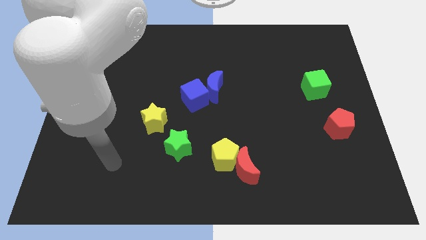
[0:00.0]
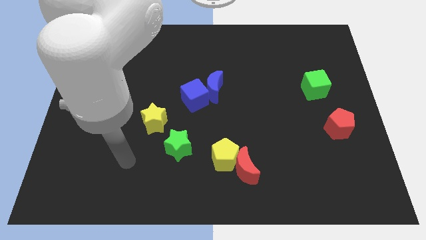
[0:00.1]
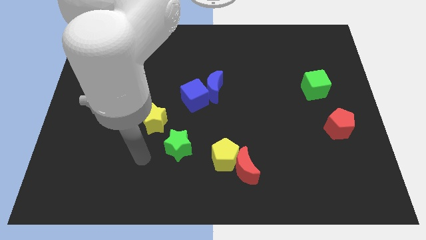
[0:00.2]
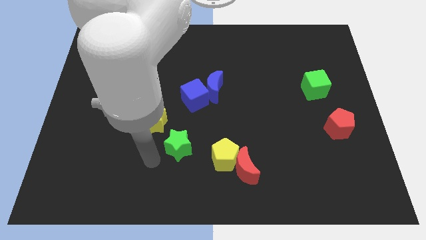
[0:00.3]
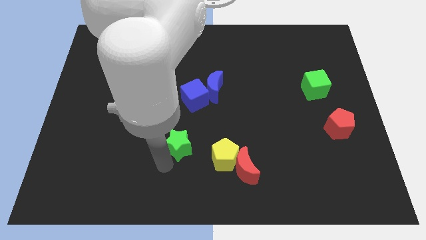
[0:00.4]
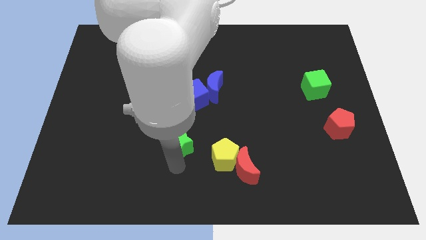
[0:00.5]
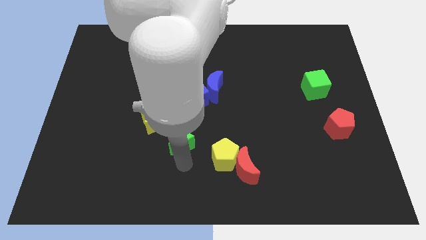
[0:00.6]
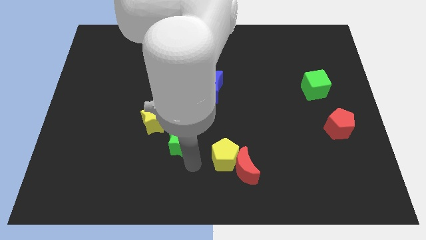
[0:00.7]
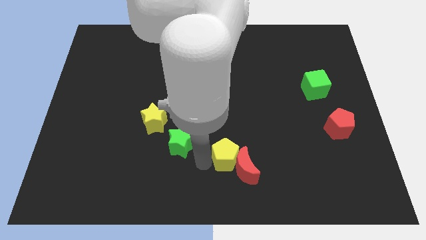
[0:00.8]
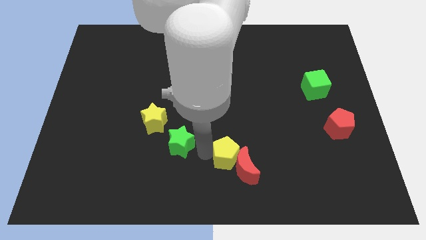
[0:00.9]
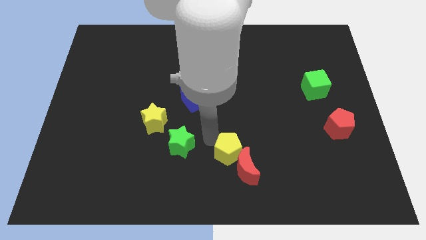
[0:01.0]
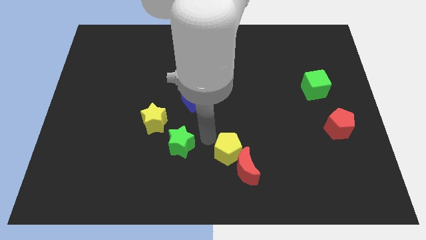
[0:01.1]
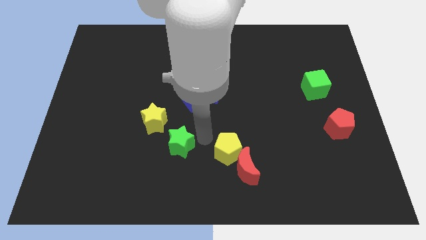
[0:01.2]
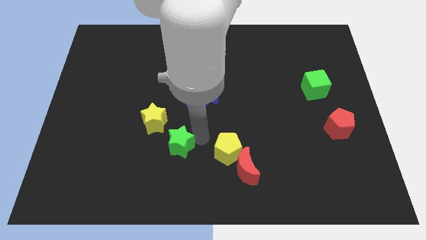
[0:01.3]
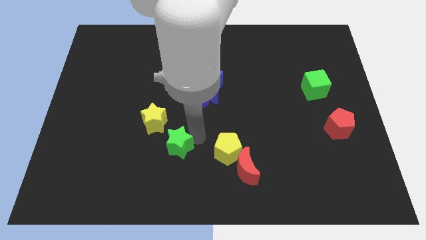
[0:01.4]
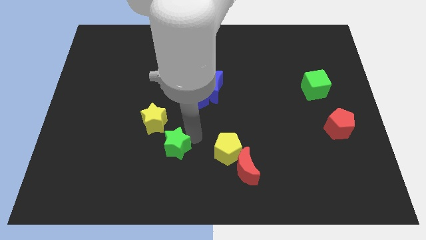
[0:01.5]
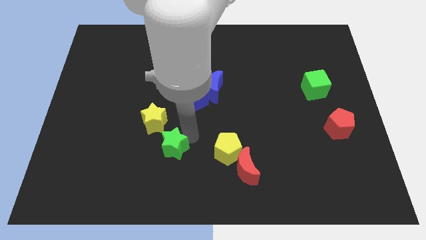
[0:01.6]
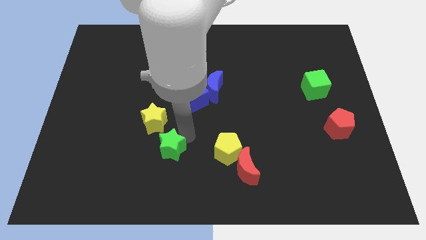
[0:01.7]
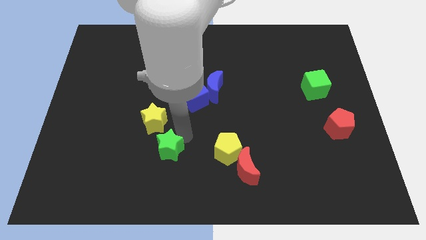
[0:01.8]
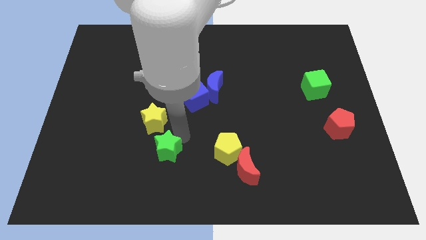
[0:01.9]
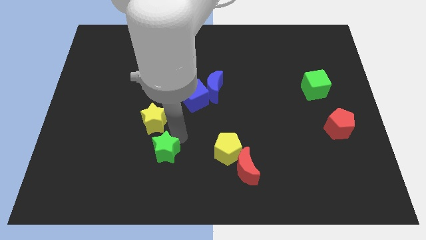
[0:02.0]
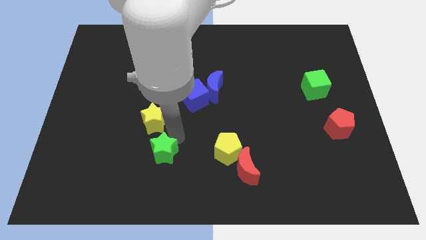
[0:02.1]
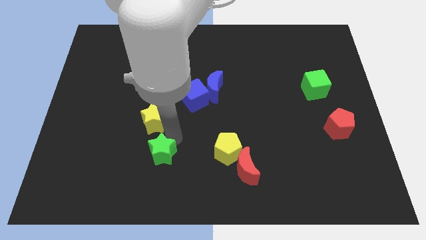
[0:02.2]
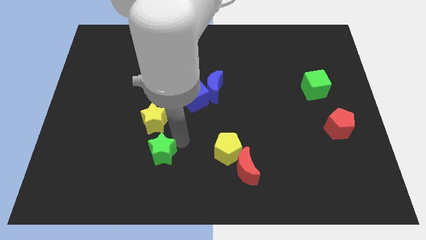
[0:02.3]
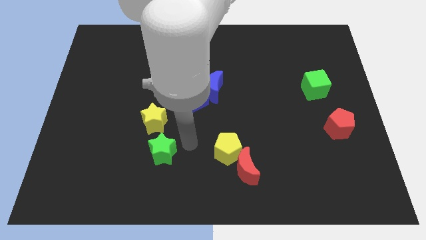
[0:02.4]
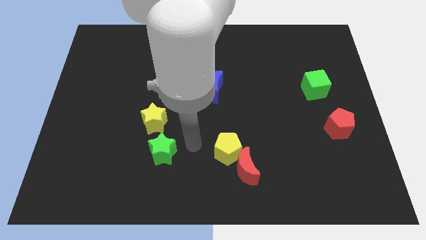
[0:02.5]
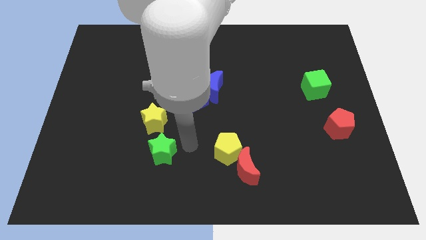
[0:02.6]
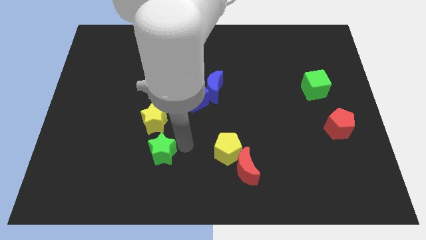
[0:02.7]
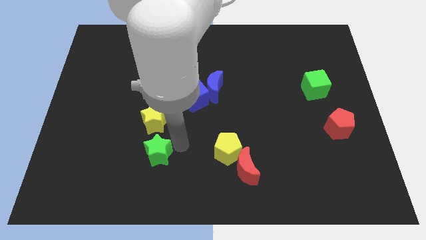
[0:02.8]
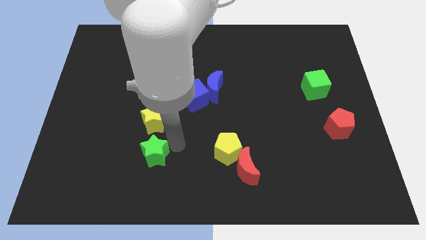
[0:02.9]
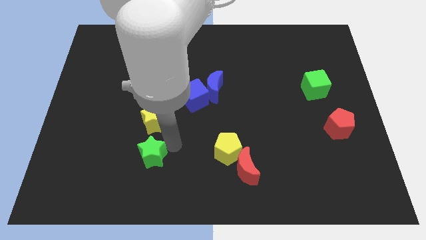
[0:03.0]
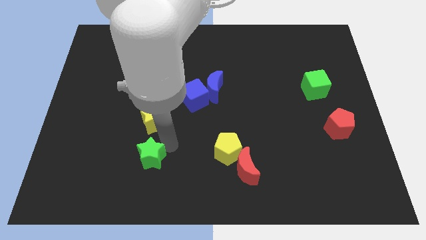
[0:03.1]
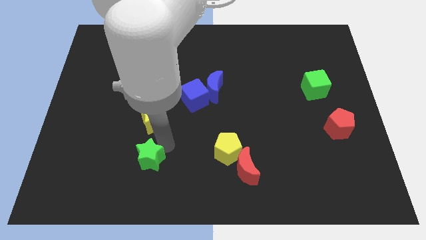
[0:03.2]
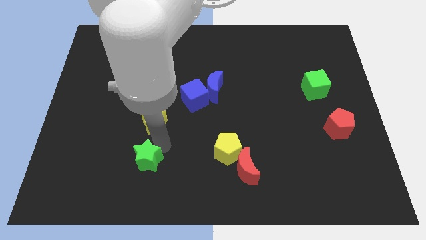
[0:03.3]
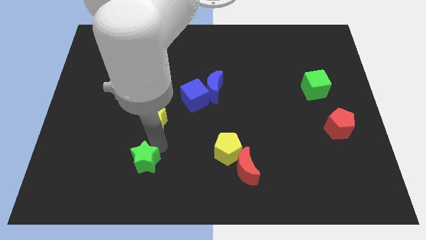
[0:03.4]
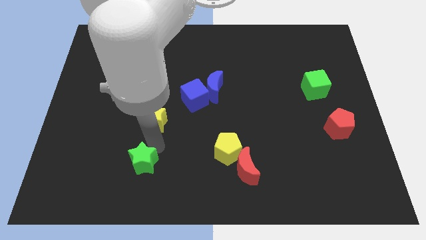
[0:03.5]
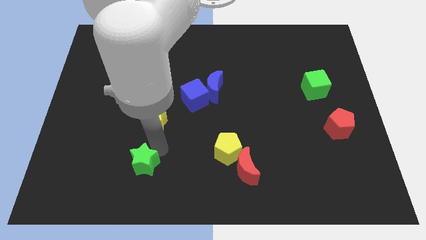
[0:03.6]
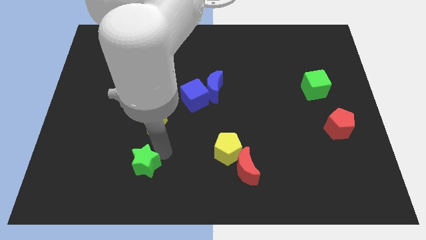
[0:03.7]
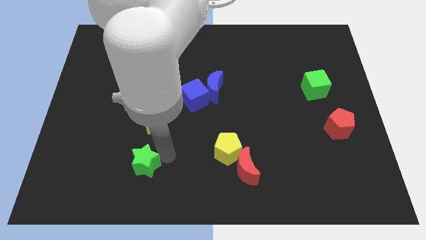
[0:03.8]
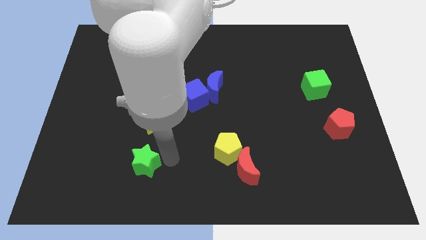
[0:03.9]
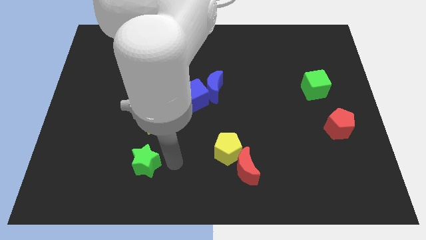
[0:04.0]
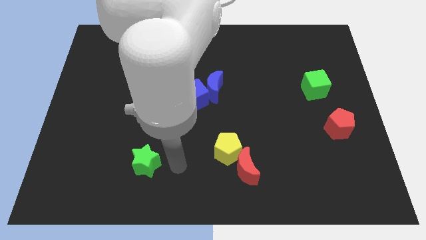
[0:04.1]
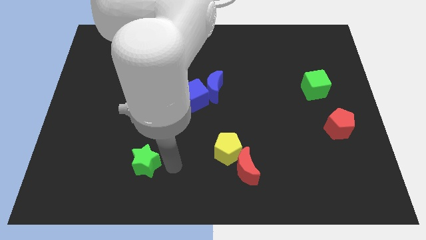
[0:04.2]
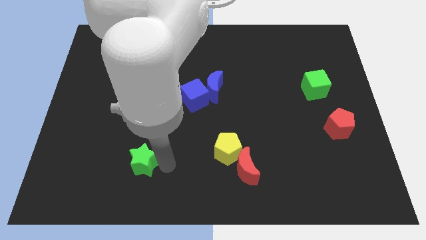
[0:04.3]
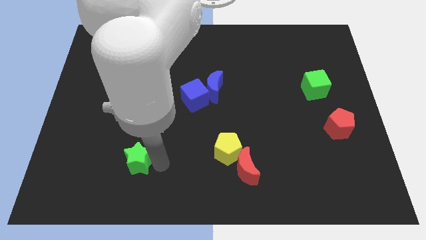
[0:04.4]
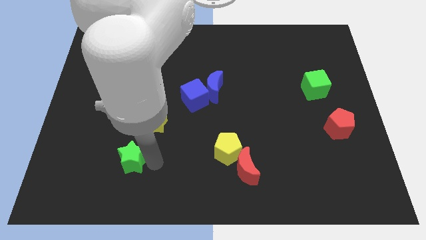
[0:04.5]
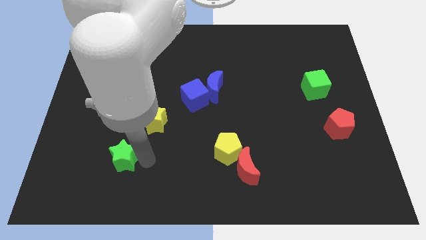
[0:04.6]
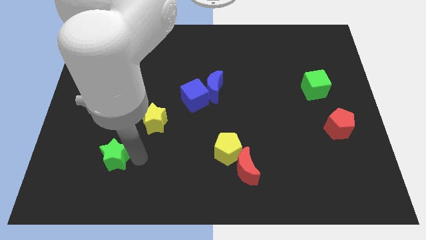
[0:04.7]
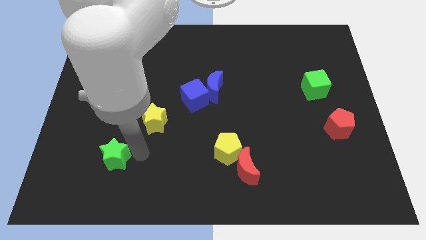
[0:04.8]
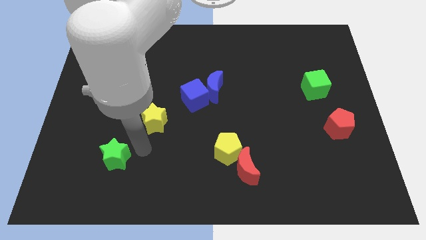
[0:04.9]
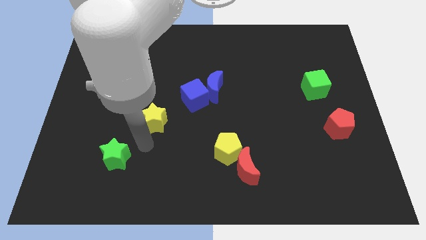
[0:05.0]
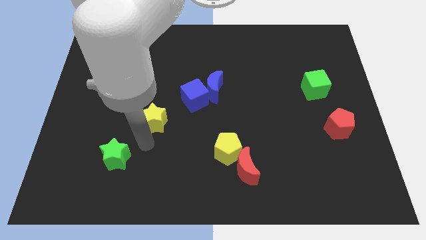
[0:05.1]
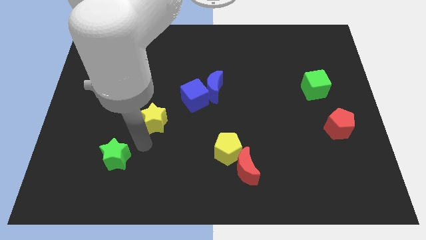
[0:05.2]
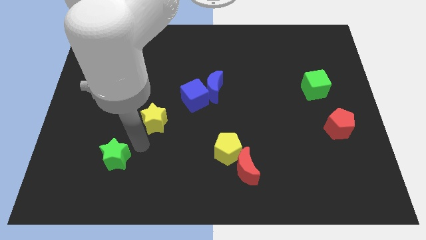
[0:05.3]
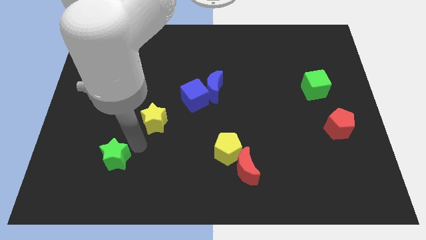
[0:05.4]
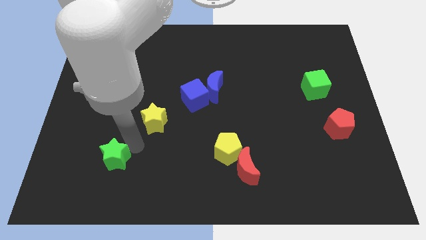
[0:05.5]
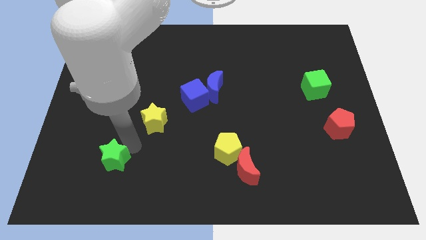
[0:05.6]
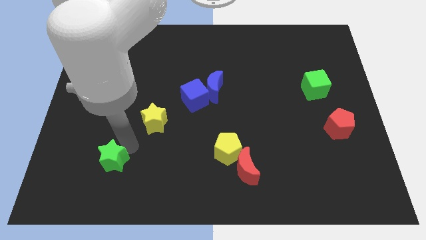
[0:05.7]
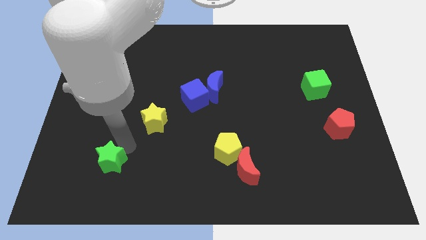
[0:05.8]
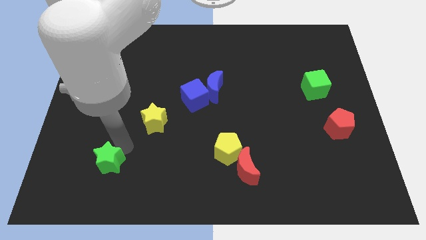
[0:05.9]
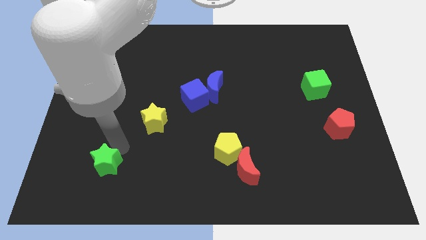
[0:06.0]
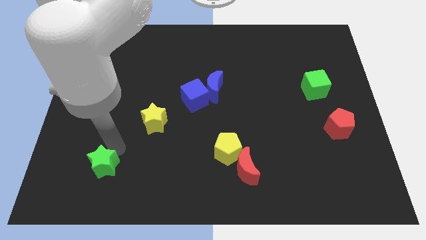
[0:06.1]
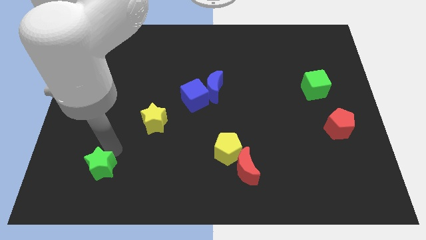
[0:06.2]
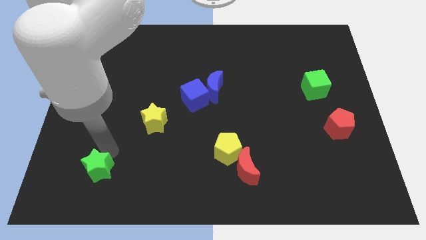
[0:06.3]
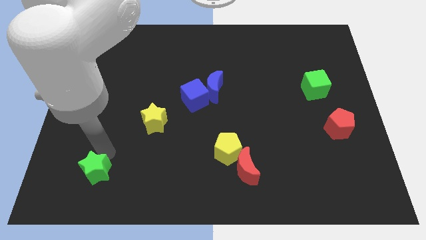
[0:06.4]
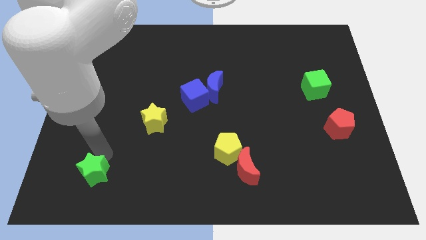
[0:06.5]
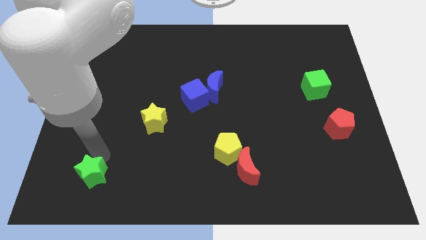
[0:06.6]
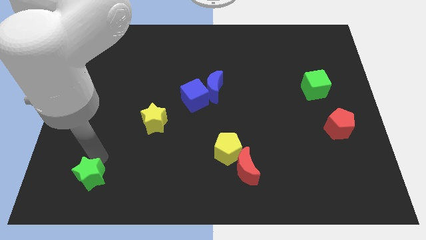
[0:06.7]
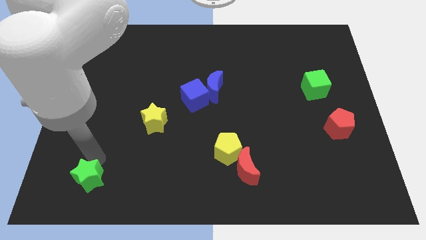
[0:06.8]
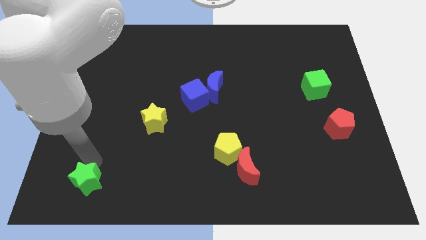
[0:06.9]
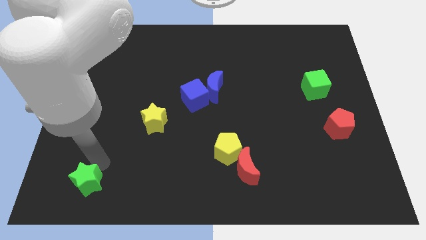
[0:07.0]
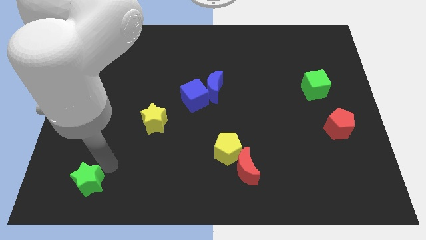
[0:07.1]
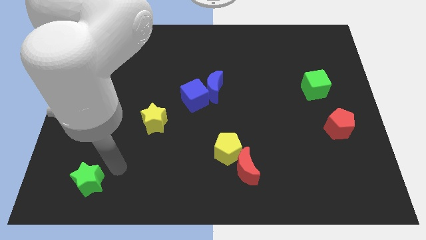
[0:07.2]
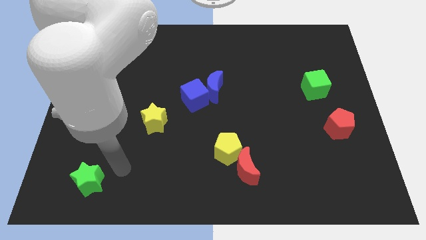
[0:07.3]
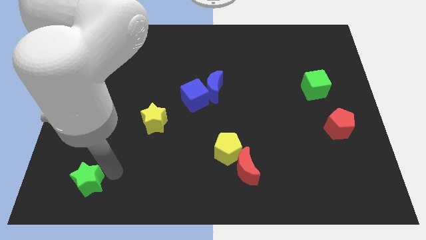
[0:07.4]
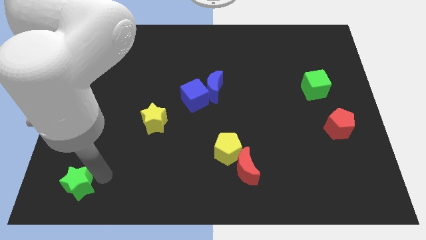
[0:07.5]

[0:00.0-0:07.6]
move the green star to the bottom left of the board
